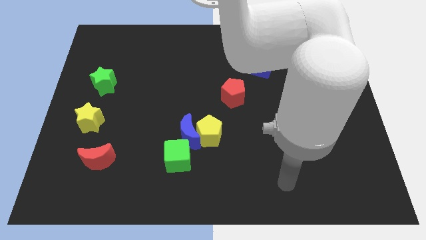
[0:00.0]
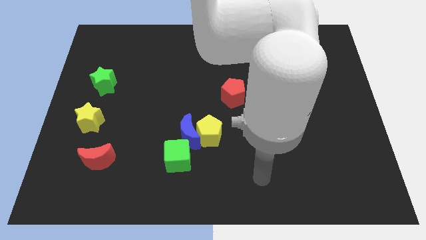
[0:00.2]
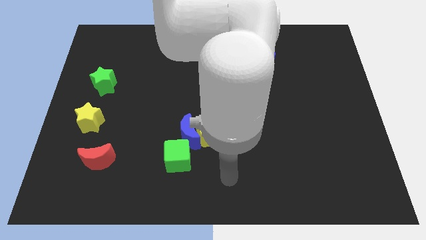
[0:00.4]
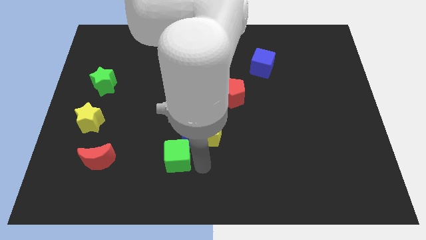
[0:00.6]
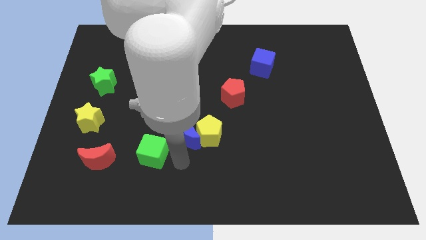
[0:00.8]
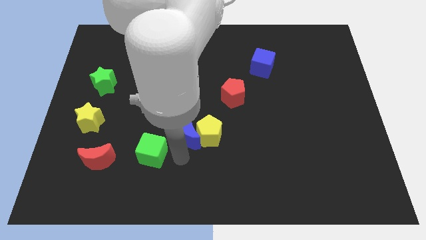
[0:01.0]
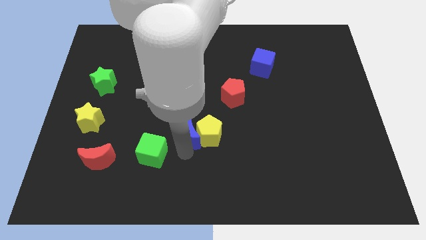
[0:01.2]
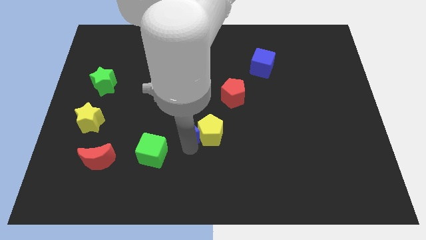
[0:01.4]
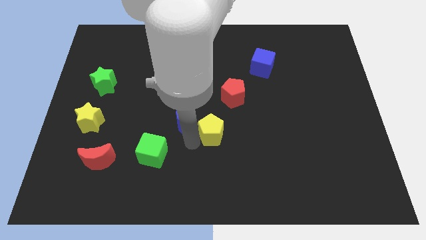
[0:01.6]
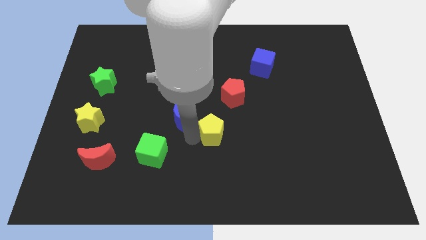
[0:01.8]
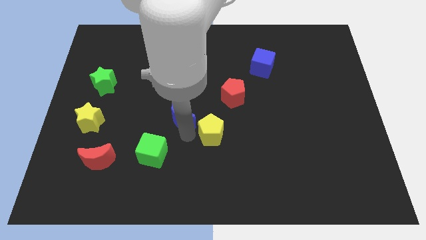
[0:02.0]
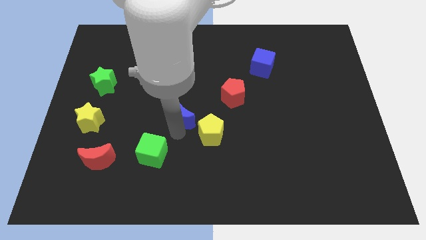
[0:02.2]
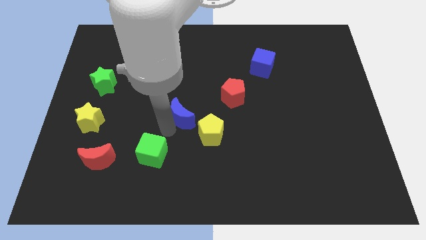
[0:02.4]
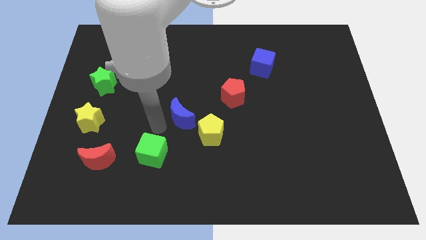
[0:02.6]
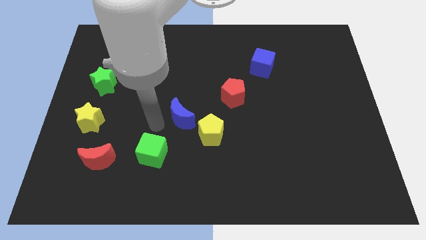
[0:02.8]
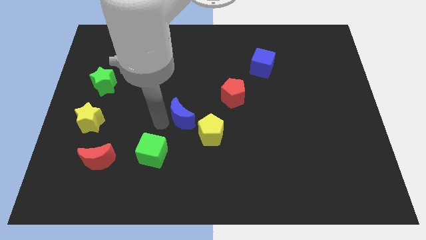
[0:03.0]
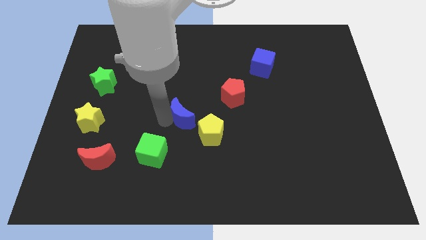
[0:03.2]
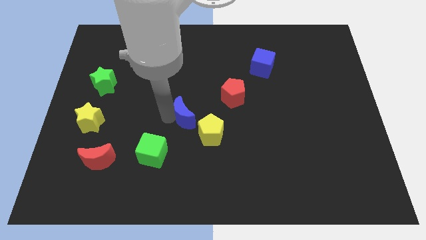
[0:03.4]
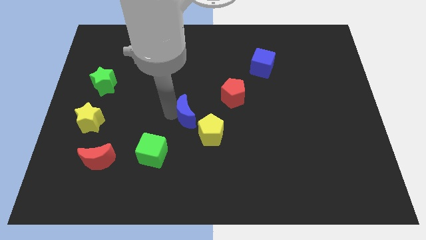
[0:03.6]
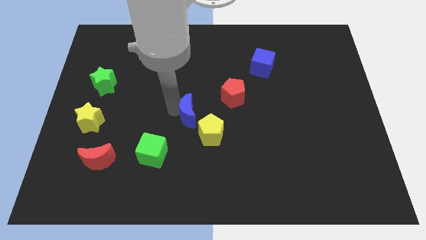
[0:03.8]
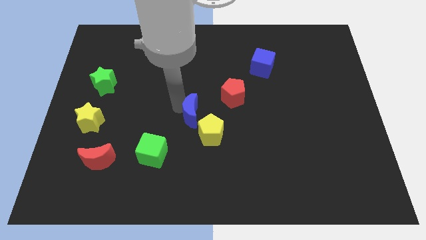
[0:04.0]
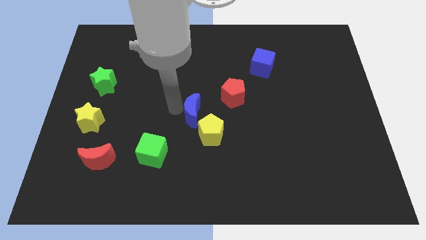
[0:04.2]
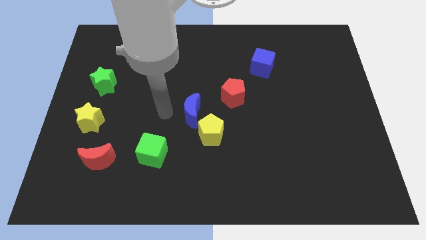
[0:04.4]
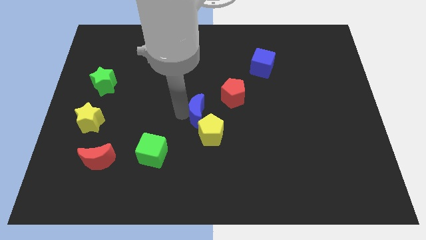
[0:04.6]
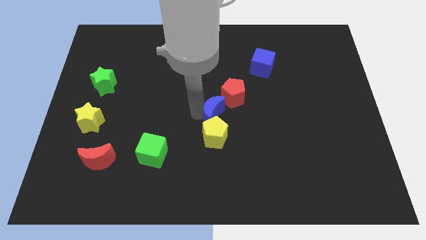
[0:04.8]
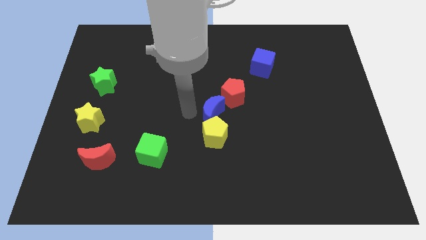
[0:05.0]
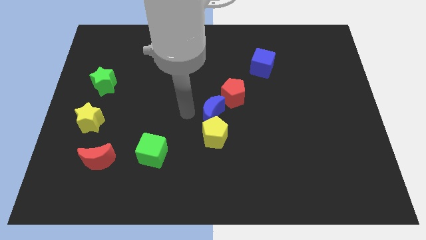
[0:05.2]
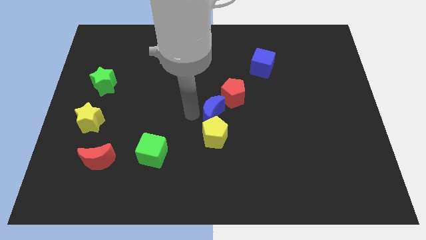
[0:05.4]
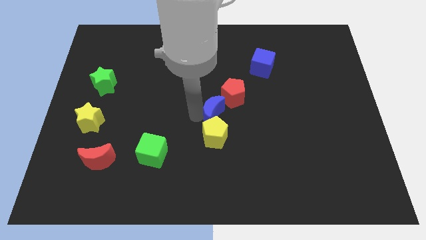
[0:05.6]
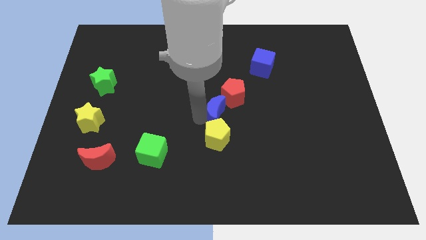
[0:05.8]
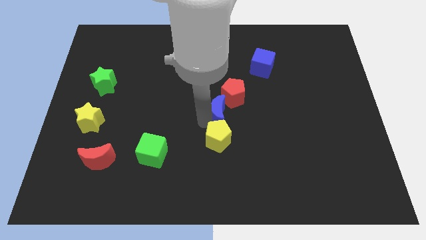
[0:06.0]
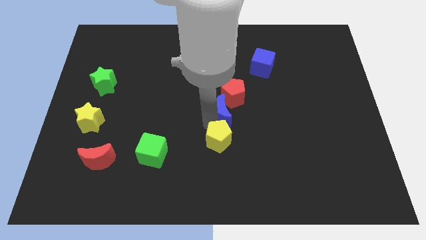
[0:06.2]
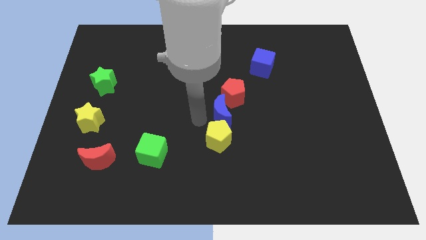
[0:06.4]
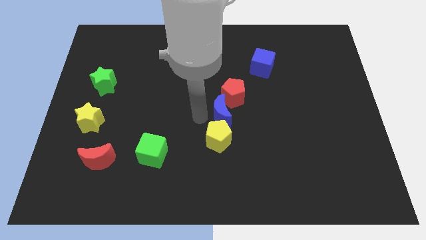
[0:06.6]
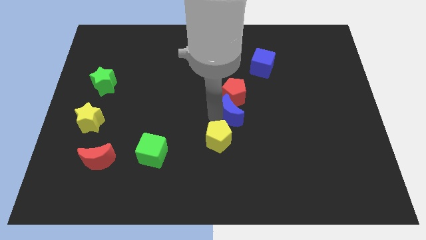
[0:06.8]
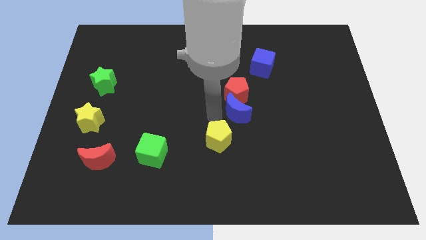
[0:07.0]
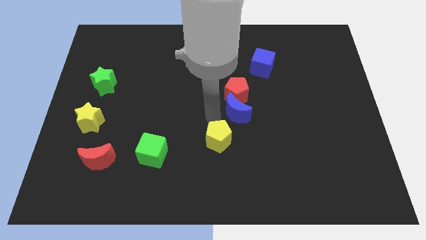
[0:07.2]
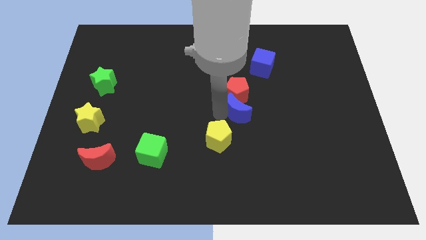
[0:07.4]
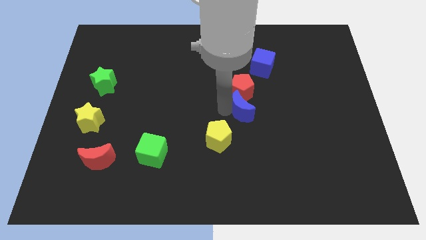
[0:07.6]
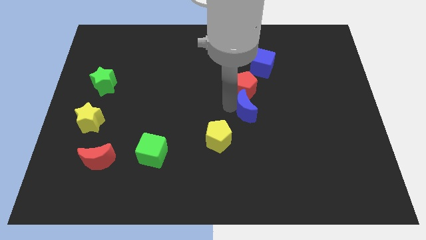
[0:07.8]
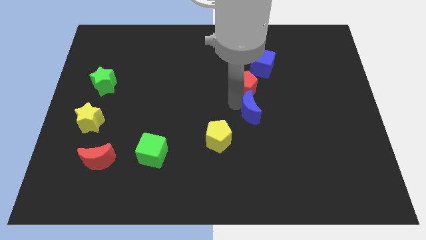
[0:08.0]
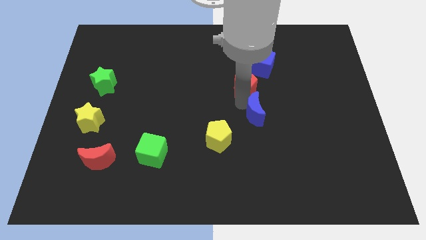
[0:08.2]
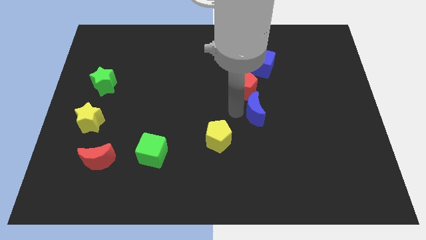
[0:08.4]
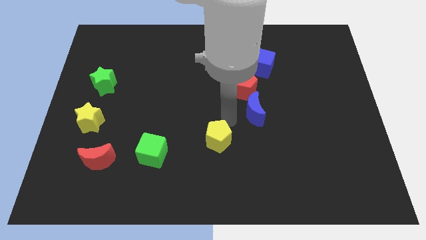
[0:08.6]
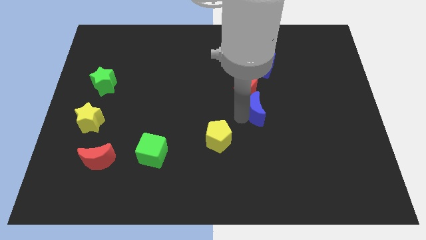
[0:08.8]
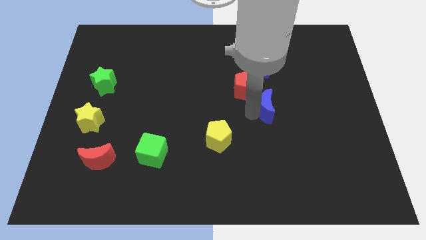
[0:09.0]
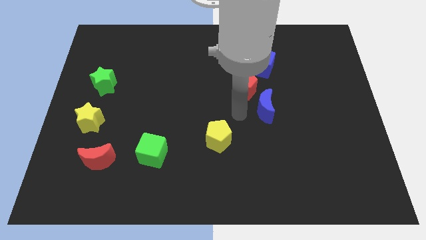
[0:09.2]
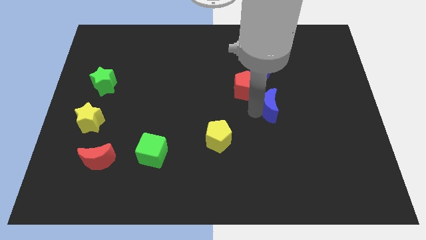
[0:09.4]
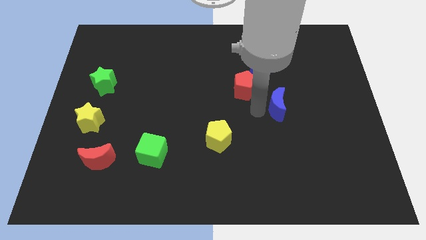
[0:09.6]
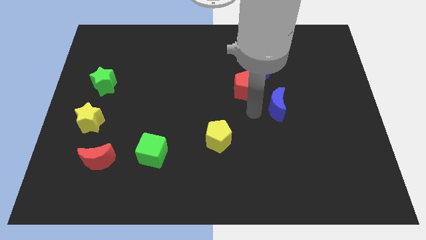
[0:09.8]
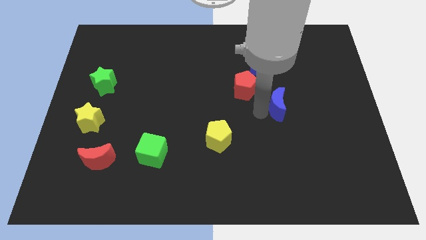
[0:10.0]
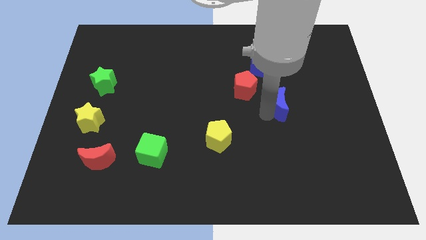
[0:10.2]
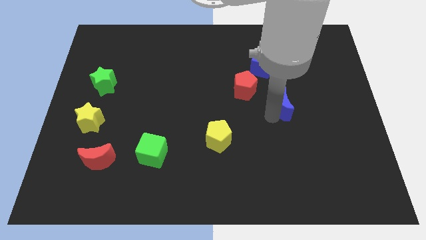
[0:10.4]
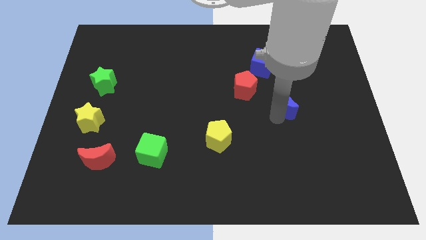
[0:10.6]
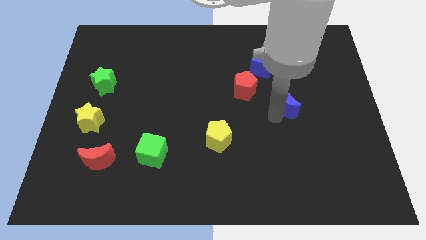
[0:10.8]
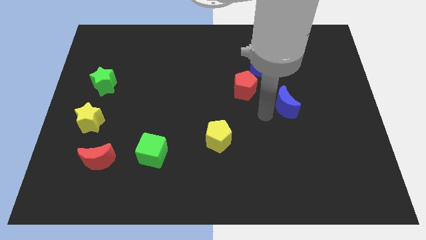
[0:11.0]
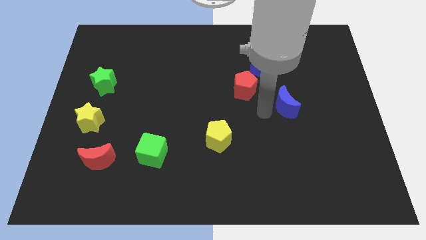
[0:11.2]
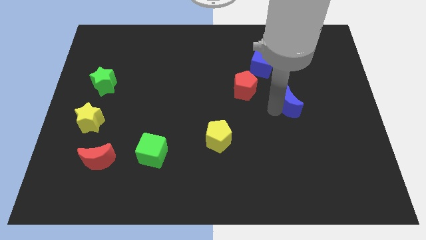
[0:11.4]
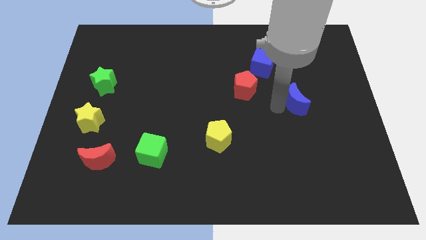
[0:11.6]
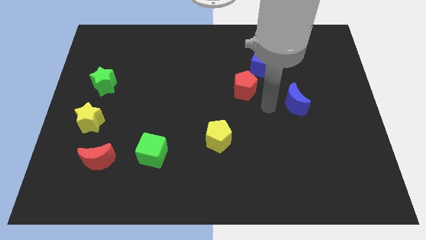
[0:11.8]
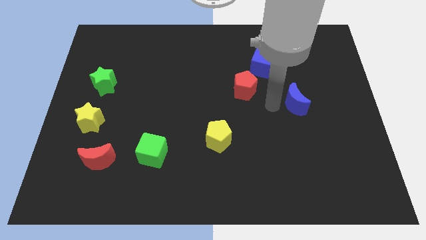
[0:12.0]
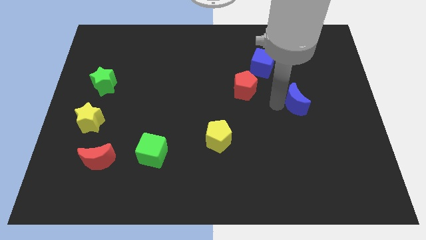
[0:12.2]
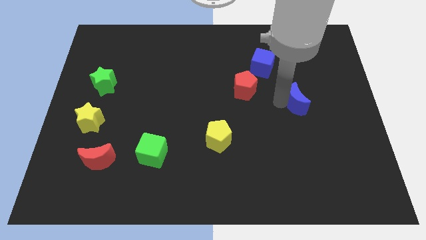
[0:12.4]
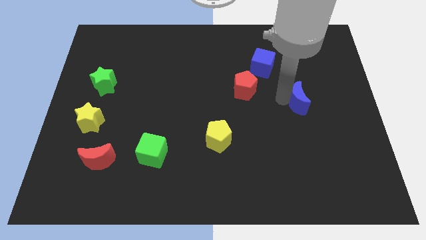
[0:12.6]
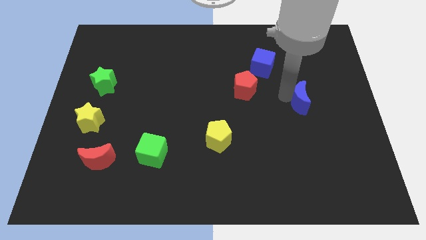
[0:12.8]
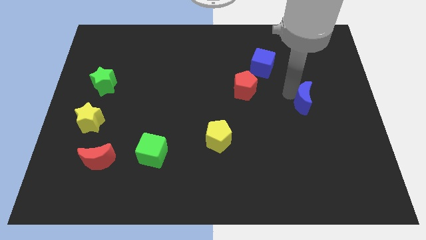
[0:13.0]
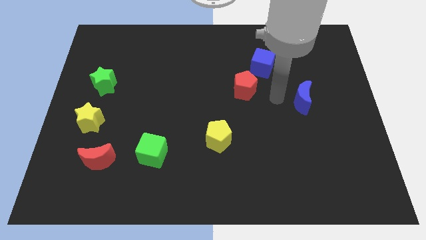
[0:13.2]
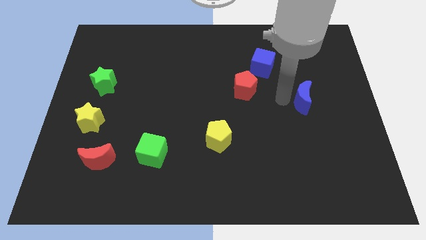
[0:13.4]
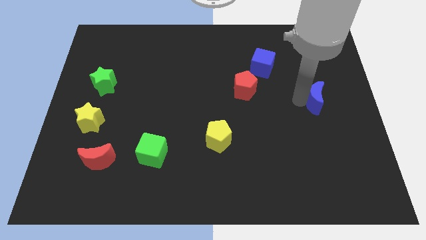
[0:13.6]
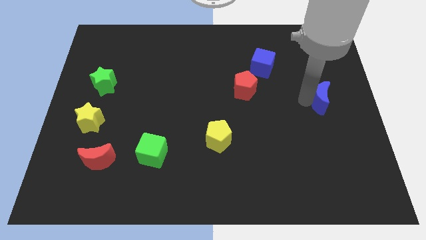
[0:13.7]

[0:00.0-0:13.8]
put the blue moon to the right side of the board
